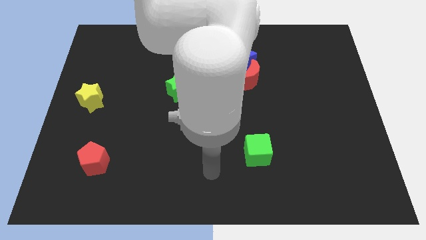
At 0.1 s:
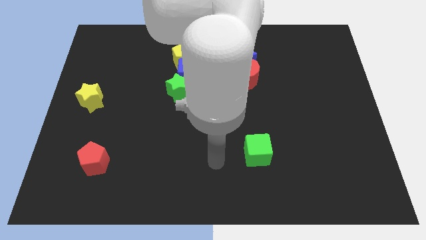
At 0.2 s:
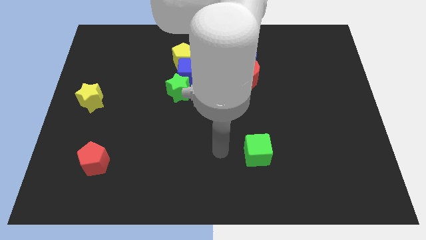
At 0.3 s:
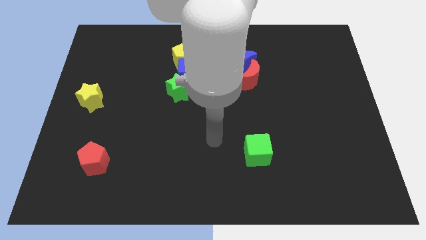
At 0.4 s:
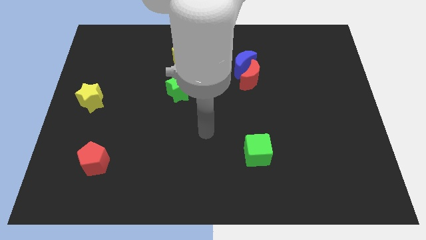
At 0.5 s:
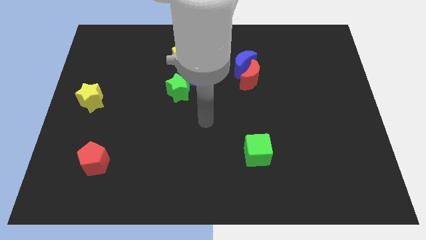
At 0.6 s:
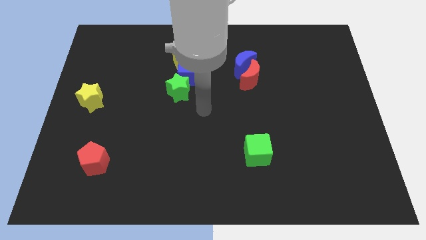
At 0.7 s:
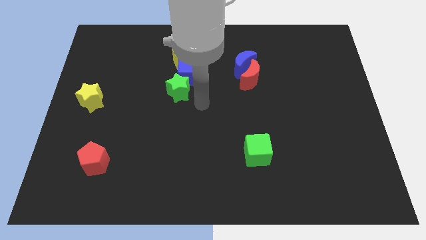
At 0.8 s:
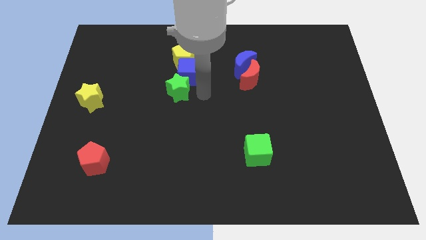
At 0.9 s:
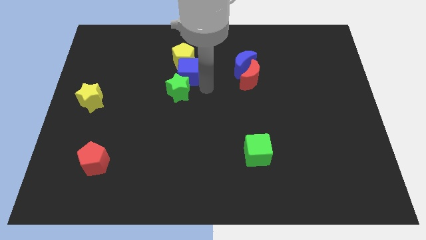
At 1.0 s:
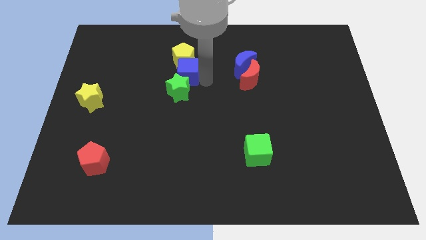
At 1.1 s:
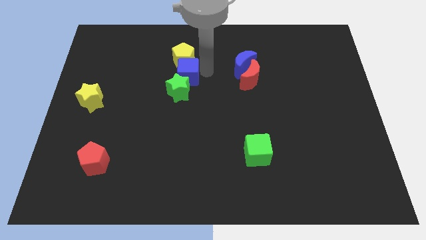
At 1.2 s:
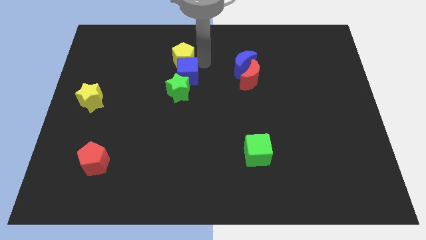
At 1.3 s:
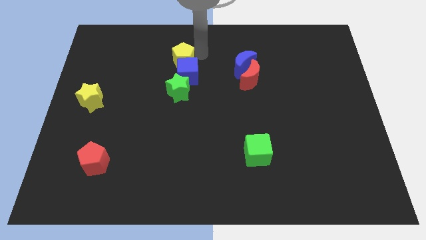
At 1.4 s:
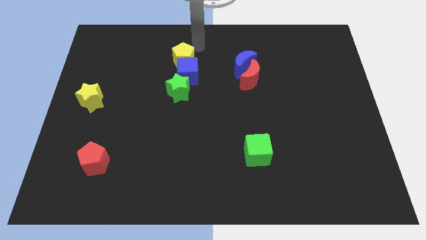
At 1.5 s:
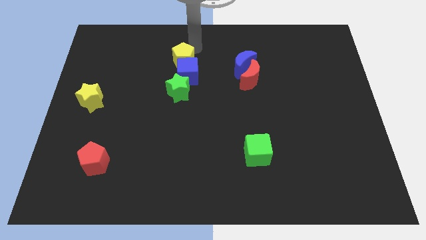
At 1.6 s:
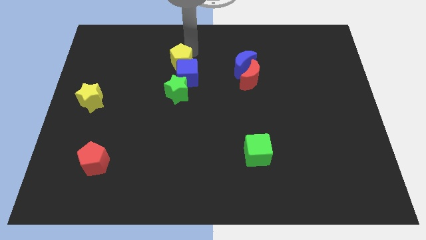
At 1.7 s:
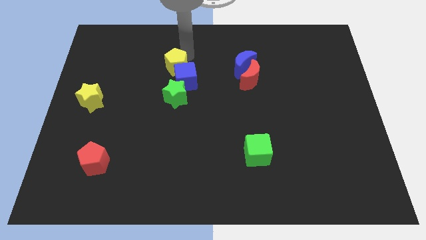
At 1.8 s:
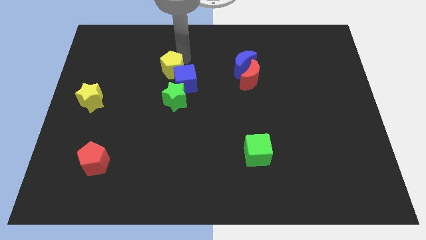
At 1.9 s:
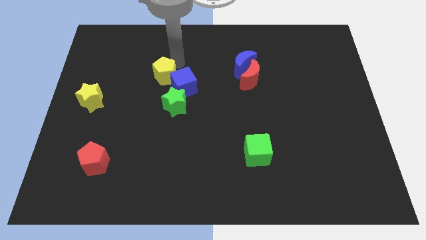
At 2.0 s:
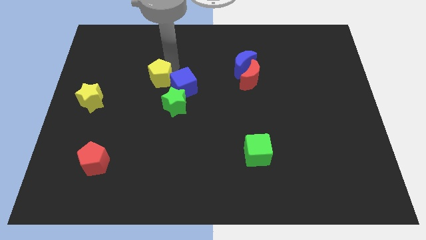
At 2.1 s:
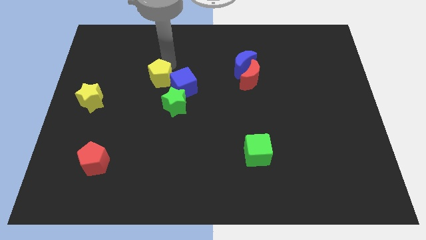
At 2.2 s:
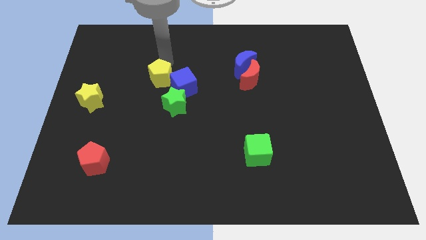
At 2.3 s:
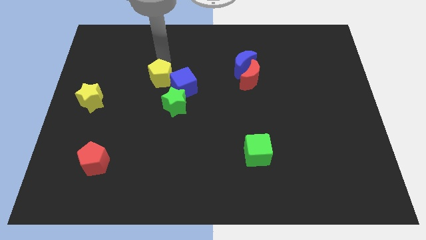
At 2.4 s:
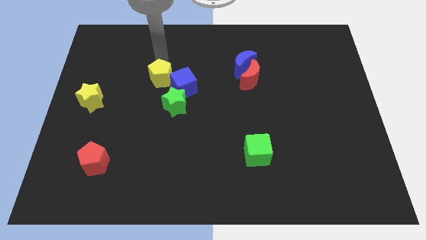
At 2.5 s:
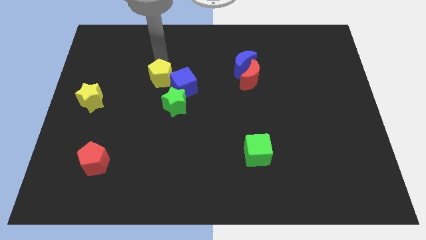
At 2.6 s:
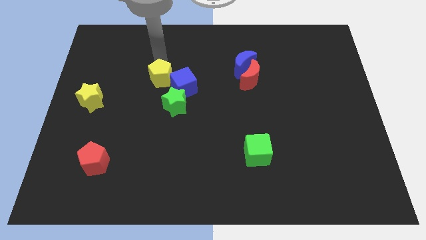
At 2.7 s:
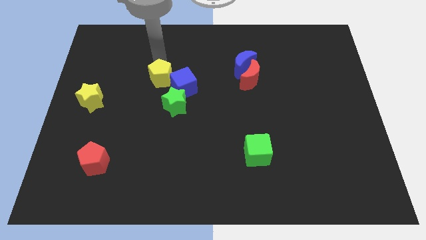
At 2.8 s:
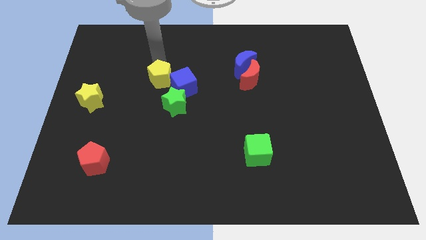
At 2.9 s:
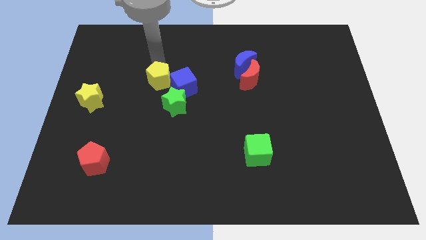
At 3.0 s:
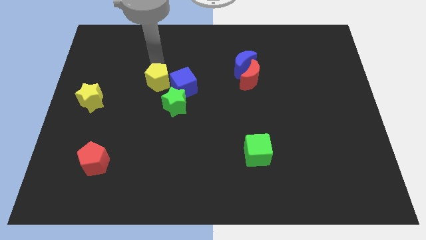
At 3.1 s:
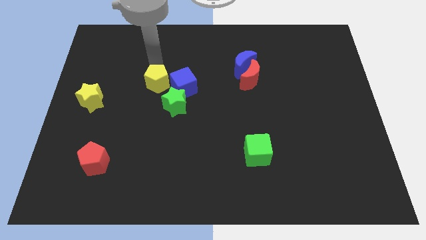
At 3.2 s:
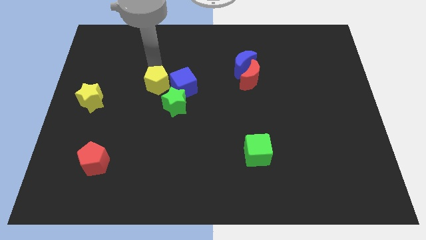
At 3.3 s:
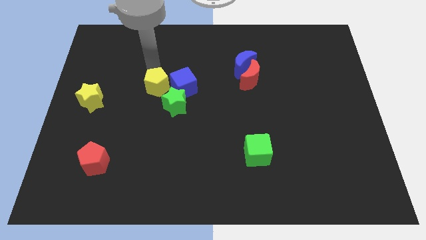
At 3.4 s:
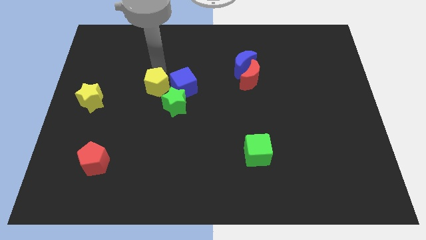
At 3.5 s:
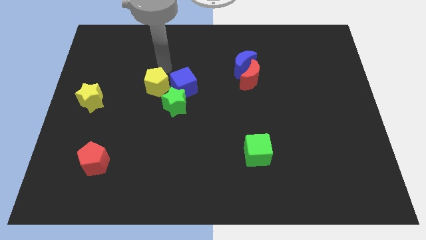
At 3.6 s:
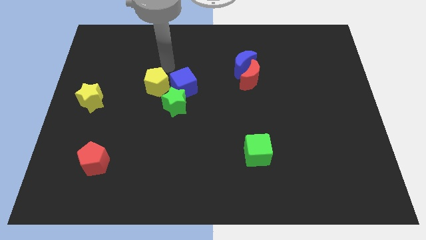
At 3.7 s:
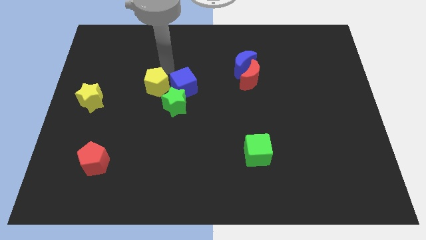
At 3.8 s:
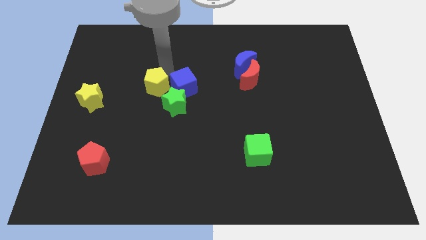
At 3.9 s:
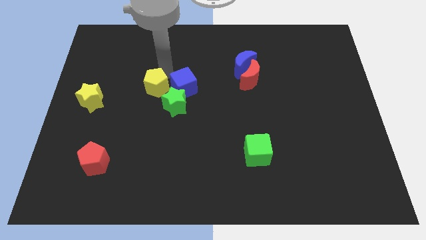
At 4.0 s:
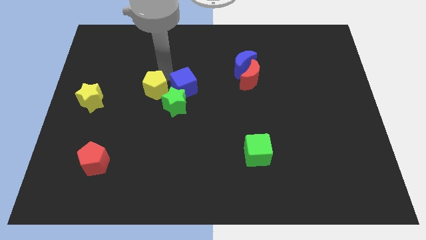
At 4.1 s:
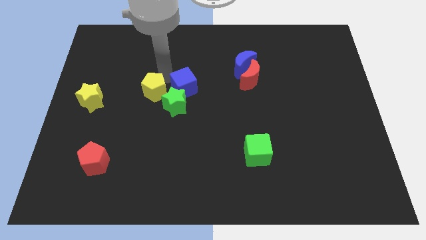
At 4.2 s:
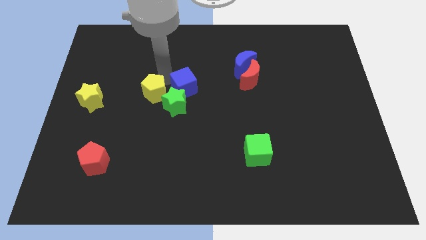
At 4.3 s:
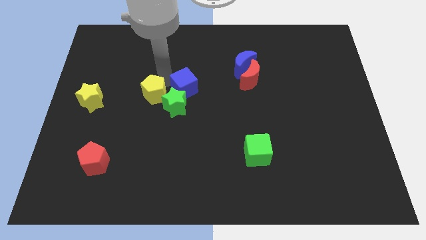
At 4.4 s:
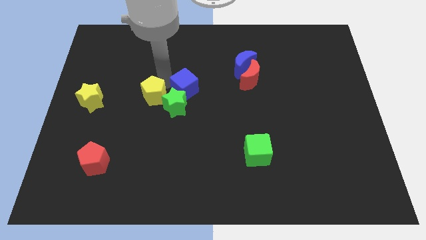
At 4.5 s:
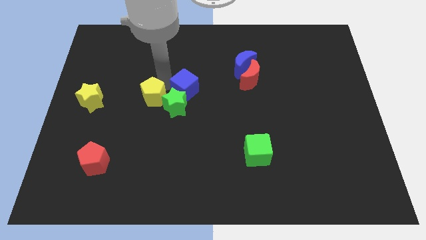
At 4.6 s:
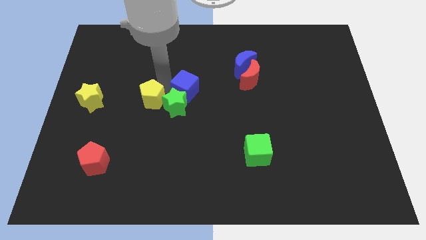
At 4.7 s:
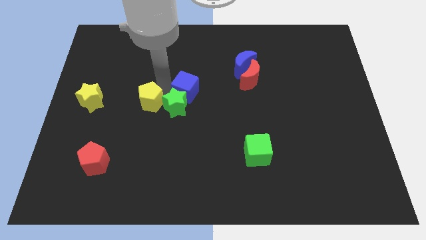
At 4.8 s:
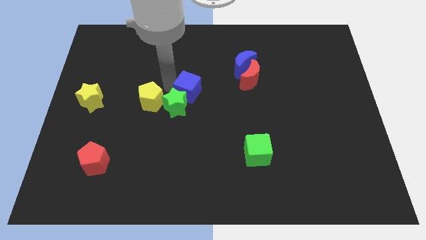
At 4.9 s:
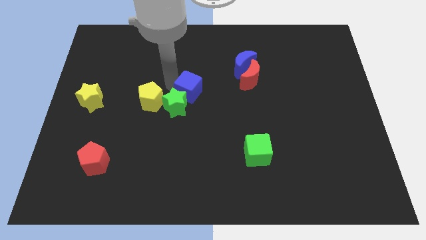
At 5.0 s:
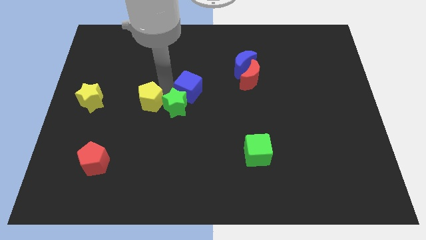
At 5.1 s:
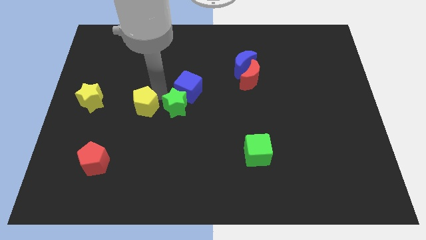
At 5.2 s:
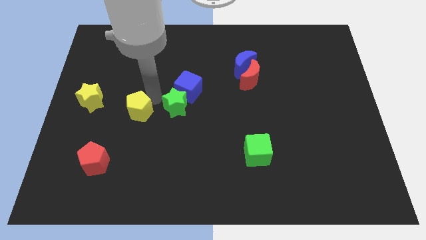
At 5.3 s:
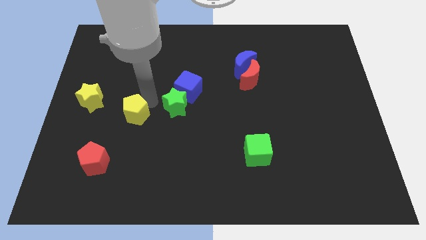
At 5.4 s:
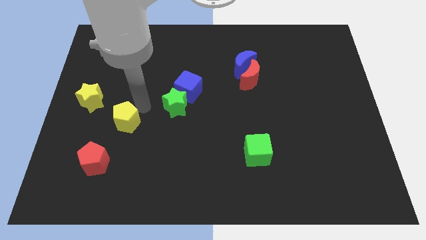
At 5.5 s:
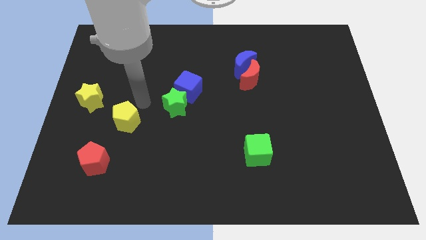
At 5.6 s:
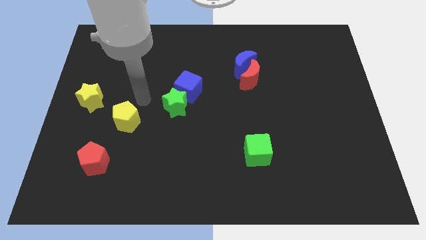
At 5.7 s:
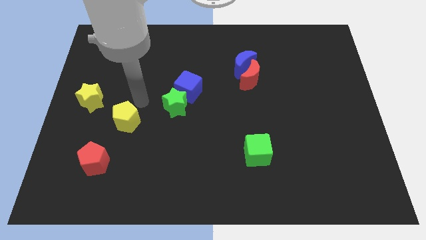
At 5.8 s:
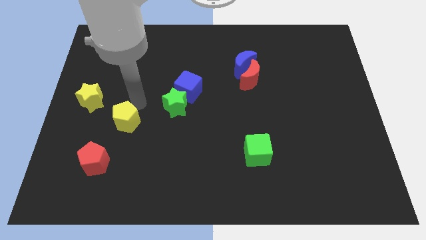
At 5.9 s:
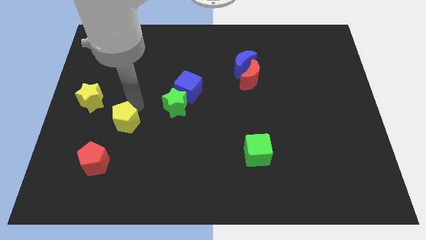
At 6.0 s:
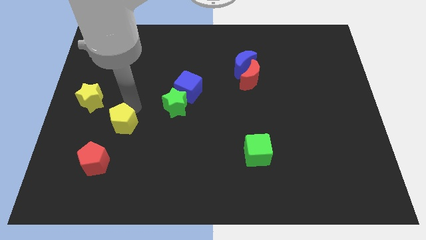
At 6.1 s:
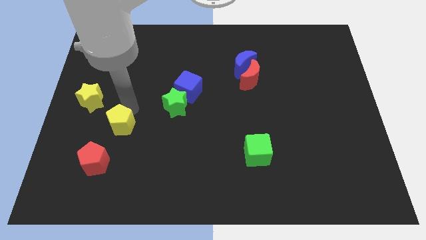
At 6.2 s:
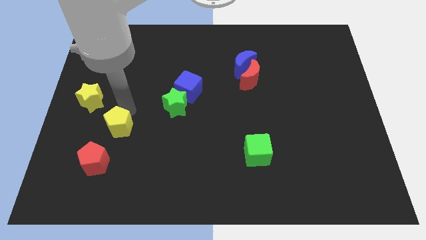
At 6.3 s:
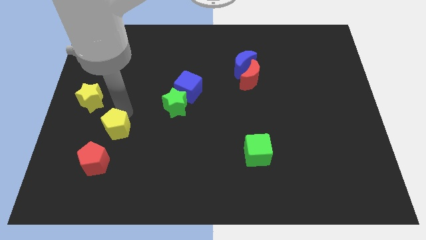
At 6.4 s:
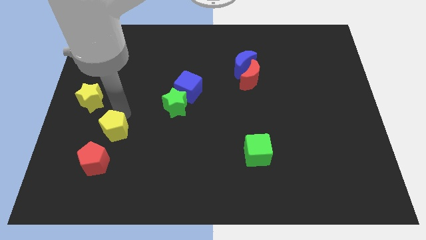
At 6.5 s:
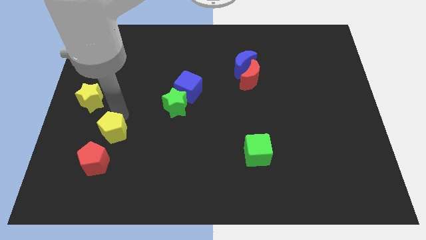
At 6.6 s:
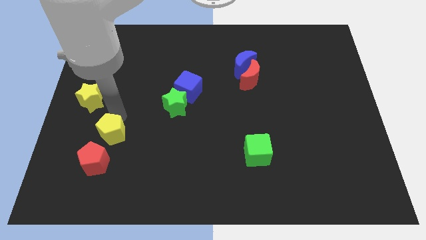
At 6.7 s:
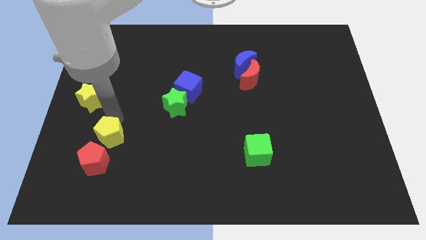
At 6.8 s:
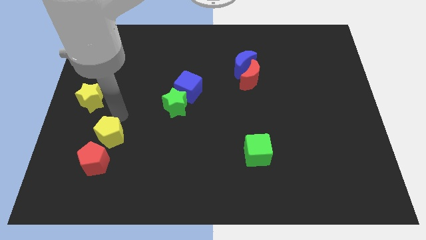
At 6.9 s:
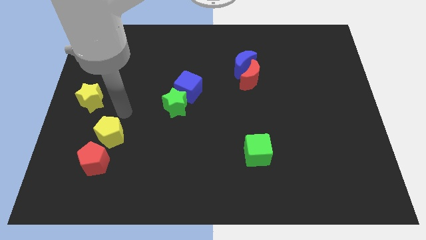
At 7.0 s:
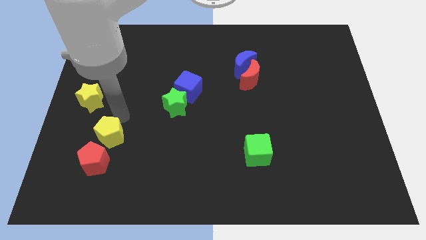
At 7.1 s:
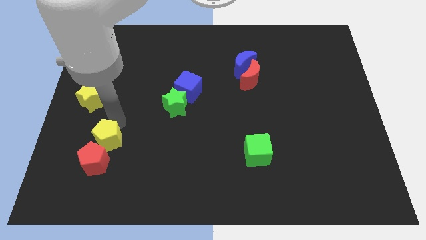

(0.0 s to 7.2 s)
push the yellow pentagon next to the red pentagon

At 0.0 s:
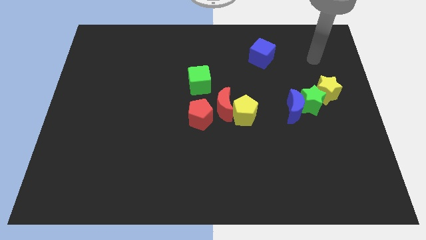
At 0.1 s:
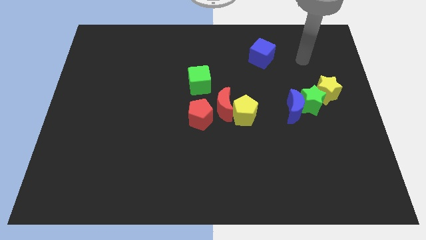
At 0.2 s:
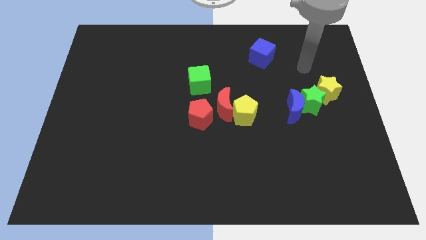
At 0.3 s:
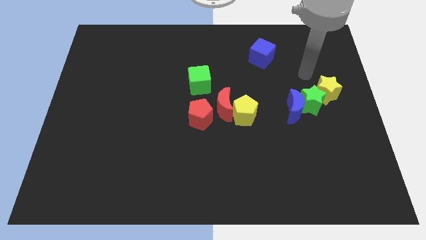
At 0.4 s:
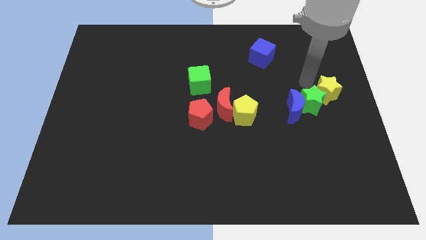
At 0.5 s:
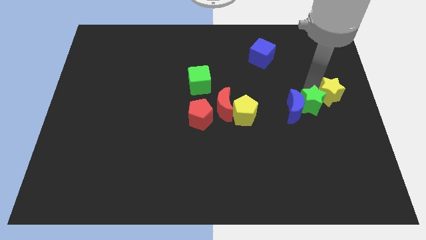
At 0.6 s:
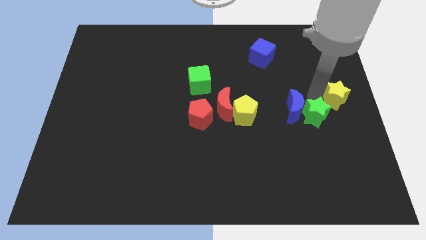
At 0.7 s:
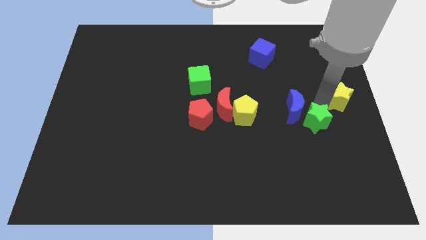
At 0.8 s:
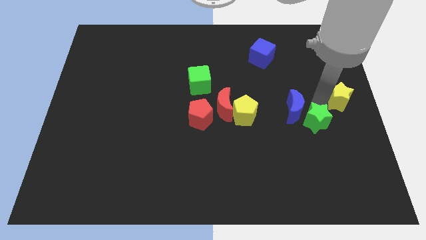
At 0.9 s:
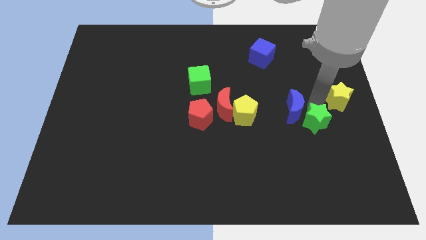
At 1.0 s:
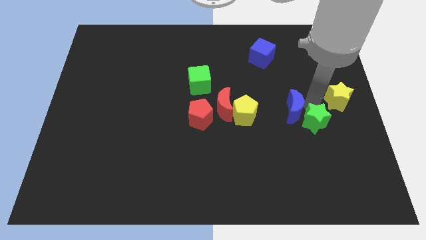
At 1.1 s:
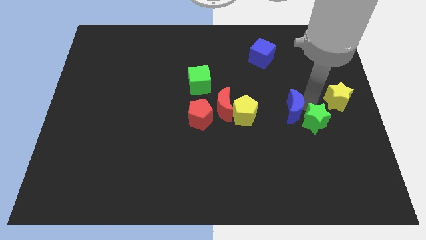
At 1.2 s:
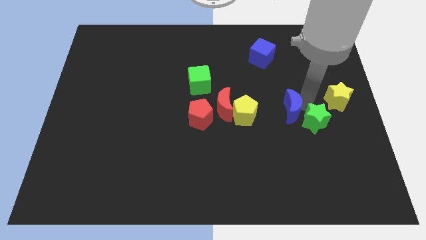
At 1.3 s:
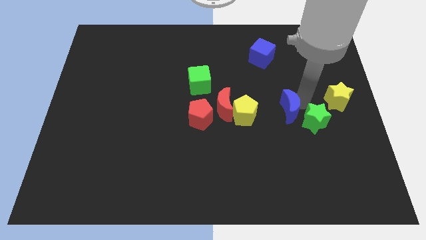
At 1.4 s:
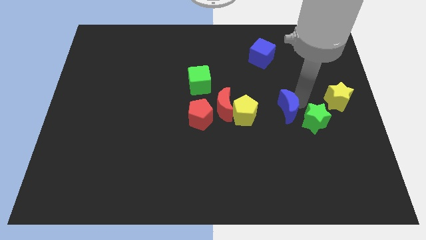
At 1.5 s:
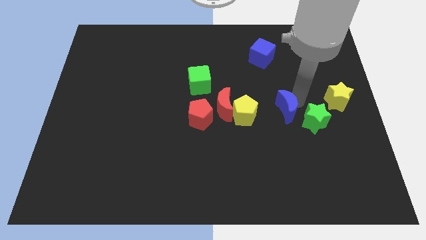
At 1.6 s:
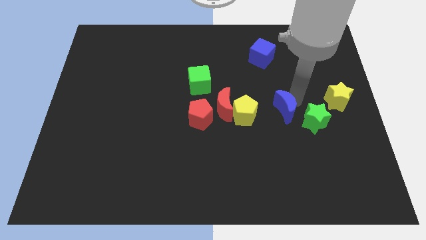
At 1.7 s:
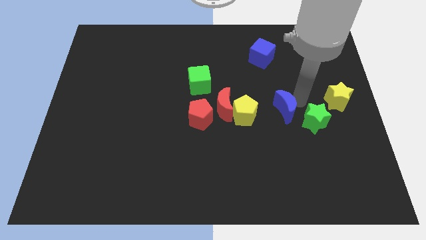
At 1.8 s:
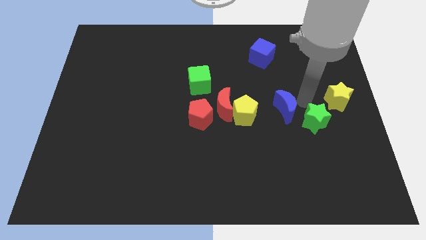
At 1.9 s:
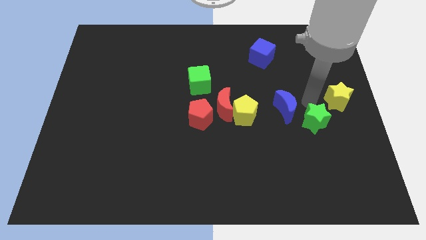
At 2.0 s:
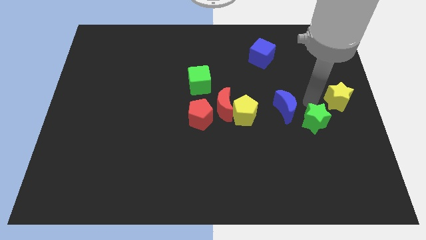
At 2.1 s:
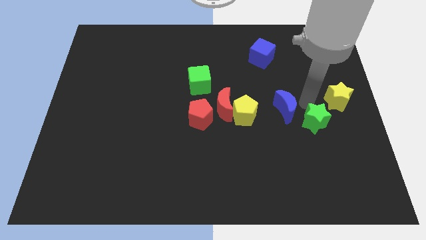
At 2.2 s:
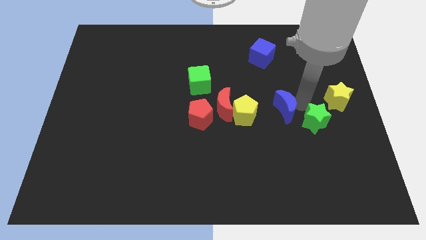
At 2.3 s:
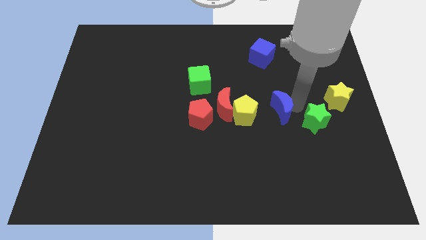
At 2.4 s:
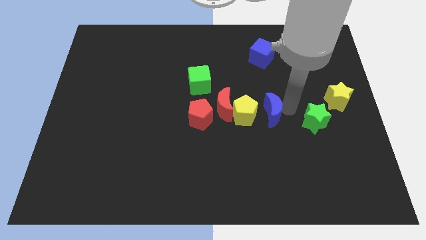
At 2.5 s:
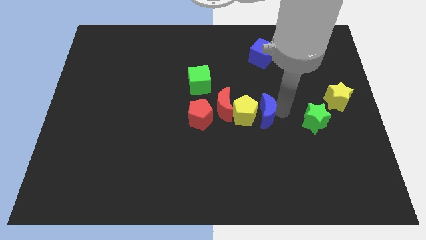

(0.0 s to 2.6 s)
slide the blue moon close to the yellow pentagon
